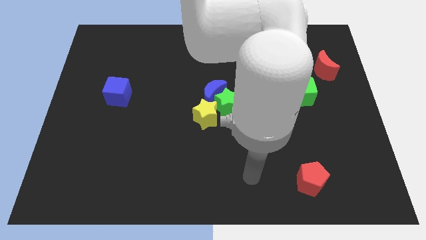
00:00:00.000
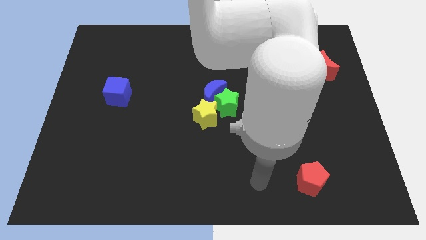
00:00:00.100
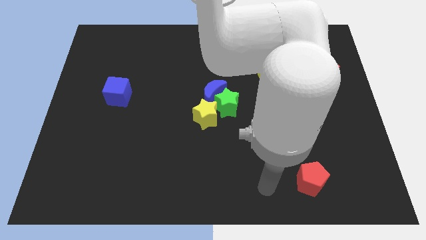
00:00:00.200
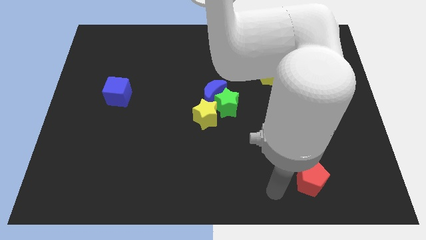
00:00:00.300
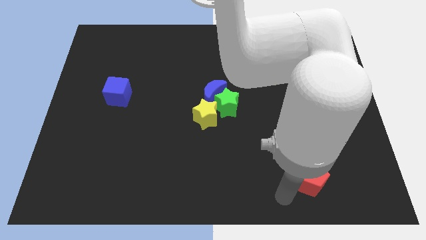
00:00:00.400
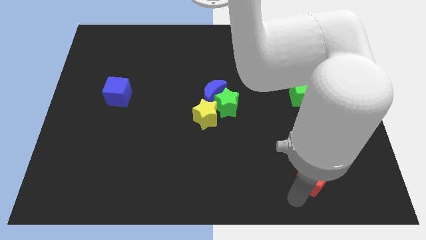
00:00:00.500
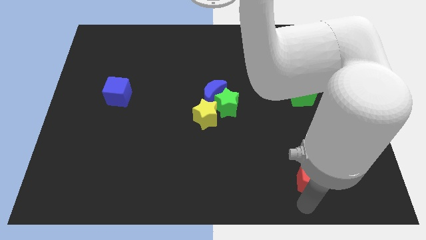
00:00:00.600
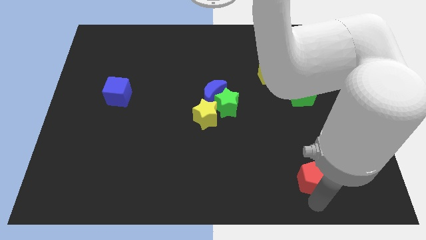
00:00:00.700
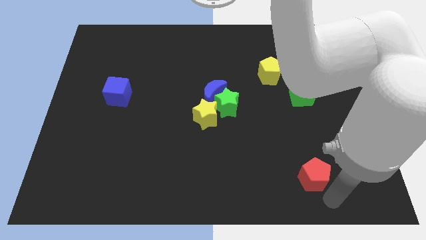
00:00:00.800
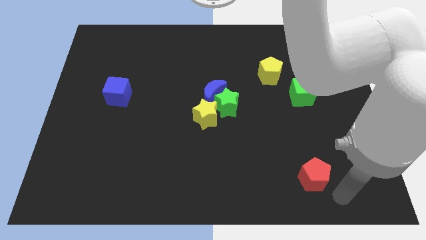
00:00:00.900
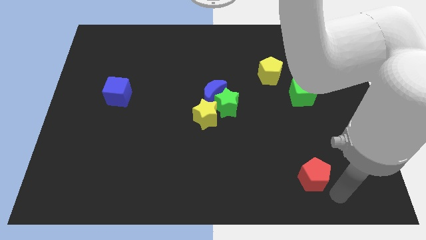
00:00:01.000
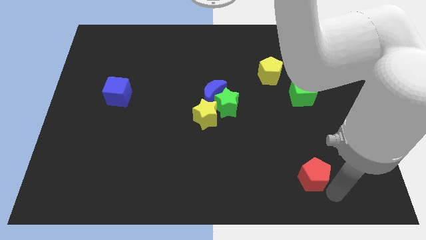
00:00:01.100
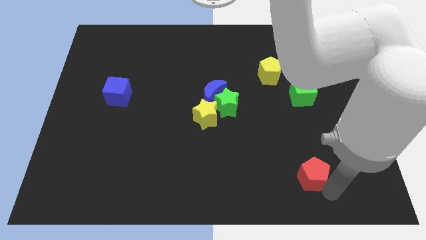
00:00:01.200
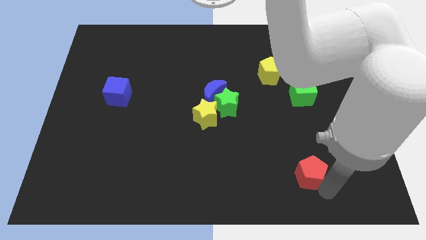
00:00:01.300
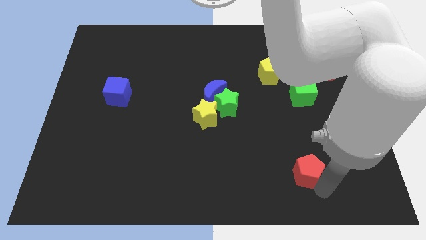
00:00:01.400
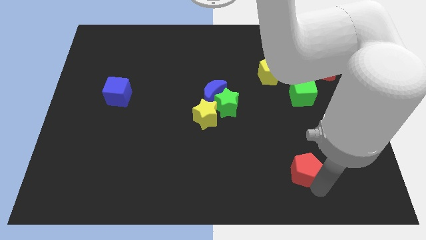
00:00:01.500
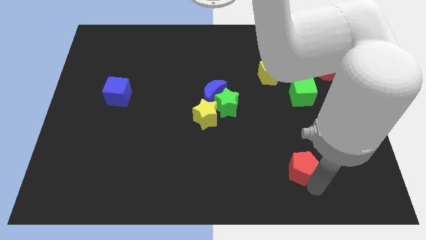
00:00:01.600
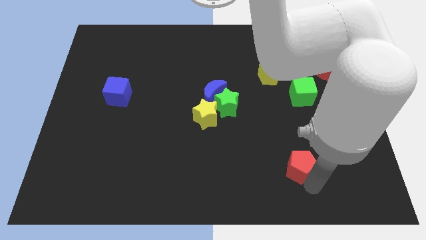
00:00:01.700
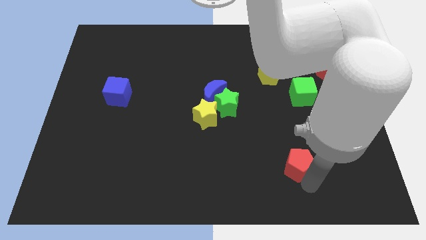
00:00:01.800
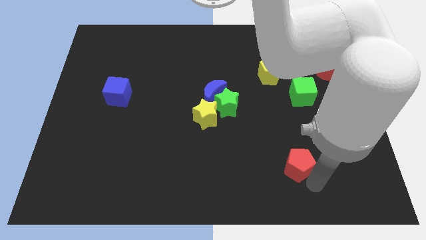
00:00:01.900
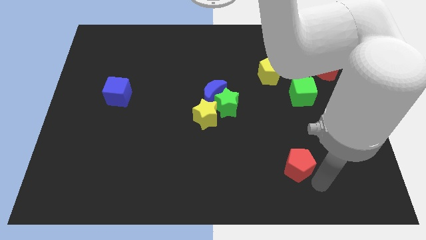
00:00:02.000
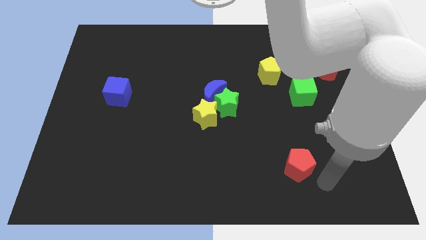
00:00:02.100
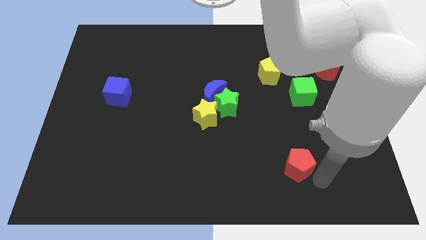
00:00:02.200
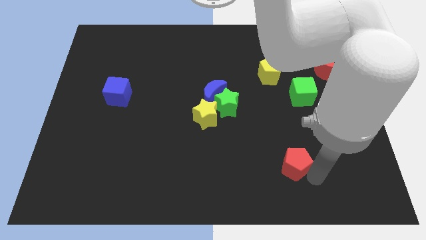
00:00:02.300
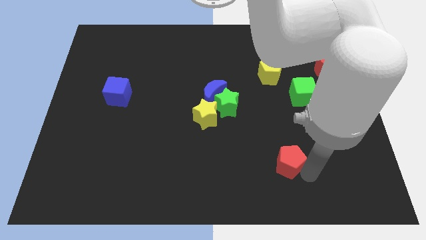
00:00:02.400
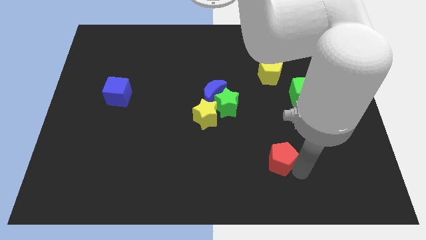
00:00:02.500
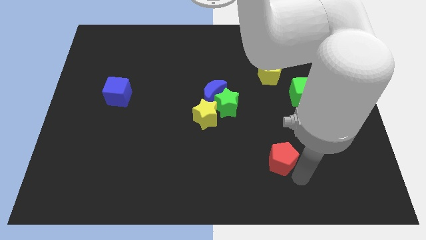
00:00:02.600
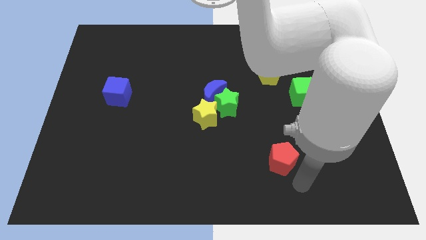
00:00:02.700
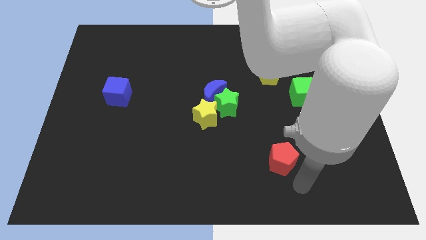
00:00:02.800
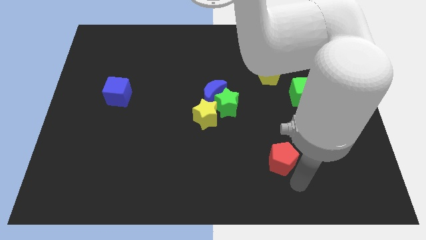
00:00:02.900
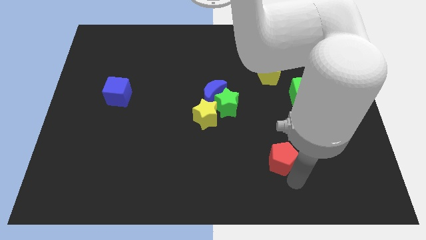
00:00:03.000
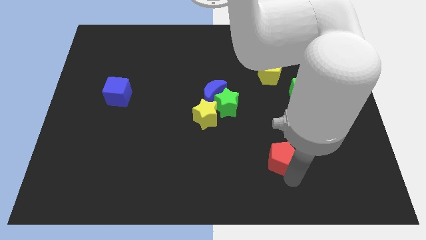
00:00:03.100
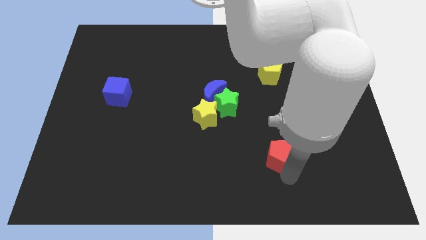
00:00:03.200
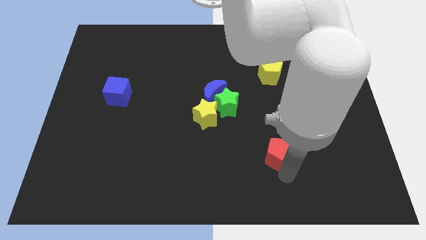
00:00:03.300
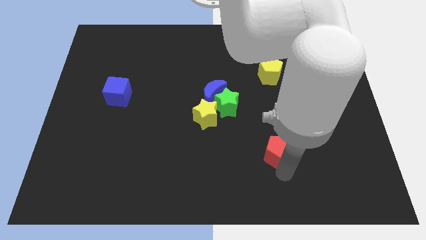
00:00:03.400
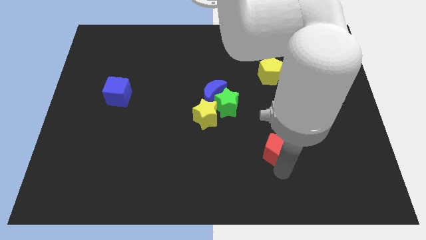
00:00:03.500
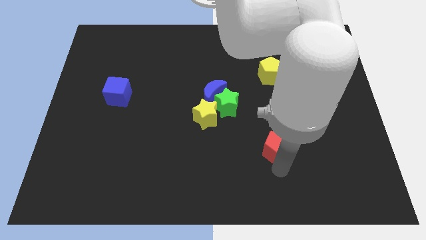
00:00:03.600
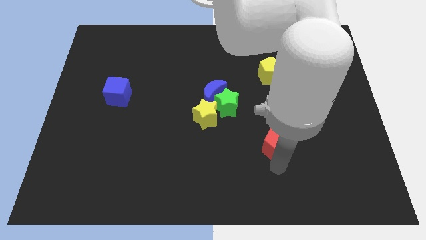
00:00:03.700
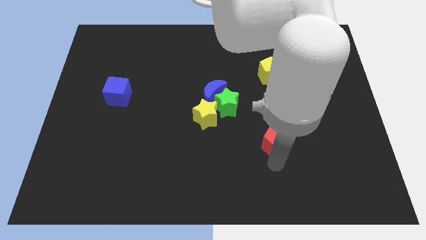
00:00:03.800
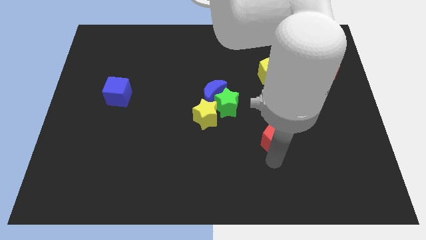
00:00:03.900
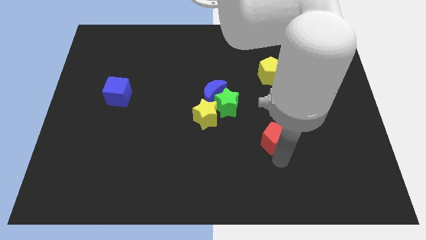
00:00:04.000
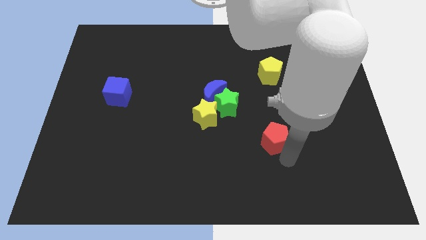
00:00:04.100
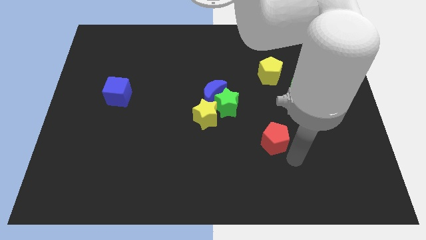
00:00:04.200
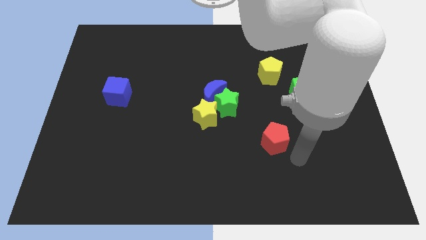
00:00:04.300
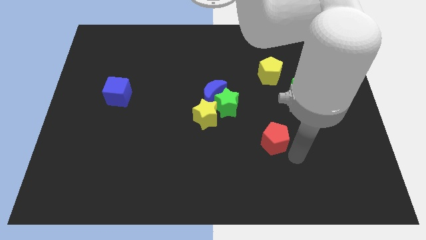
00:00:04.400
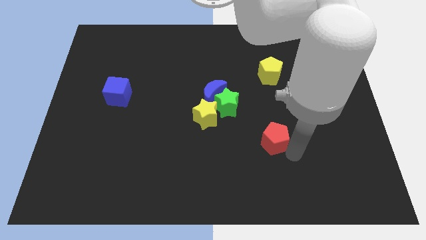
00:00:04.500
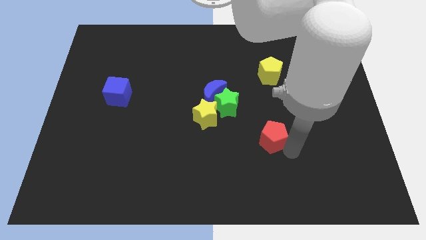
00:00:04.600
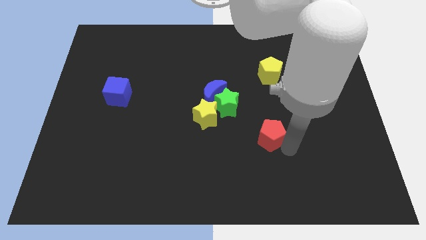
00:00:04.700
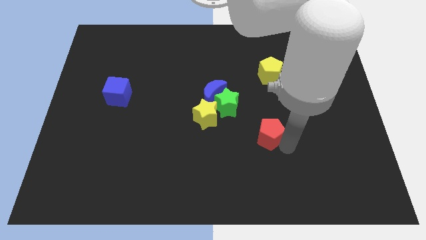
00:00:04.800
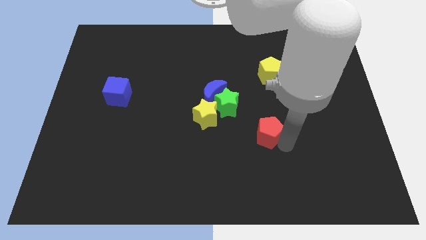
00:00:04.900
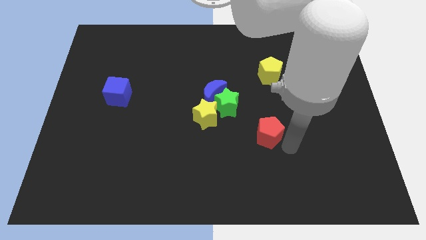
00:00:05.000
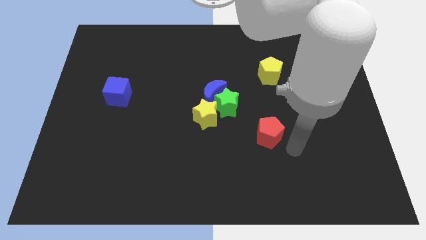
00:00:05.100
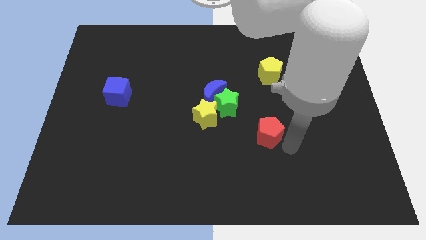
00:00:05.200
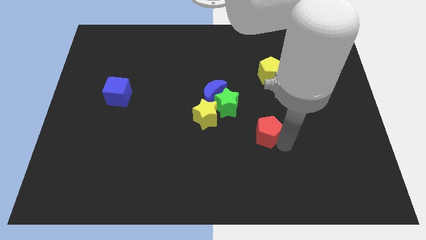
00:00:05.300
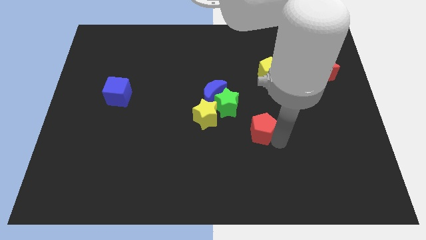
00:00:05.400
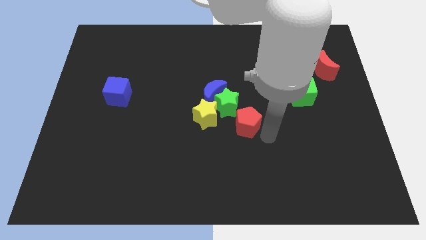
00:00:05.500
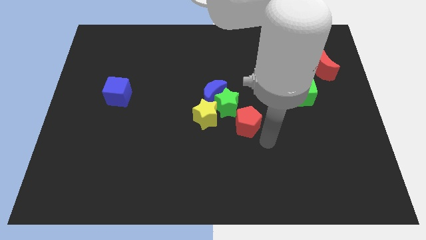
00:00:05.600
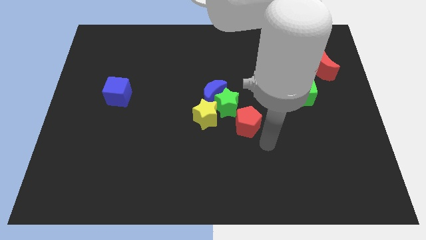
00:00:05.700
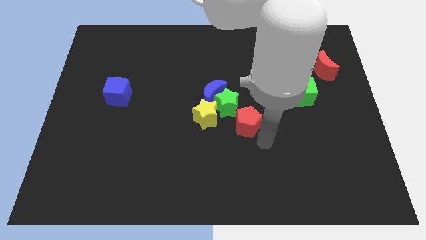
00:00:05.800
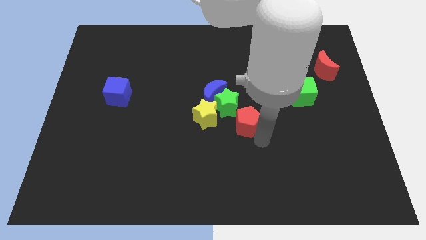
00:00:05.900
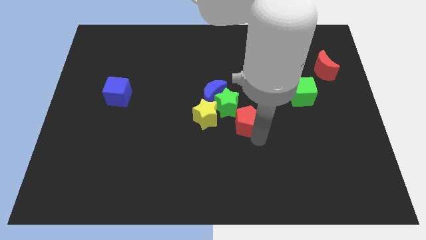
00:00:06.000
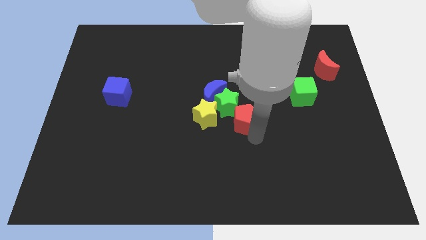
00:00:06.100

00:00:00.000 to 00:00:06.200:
push the red pentagon towards the green star

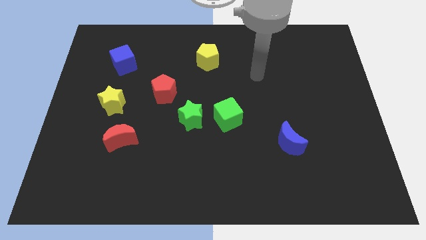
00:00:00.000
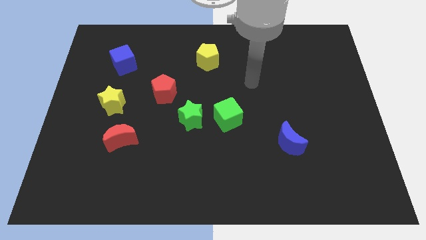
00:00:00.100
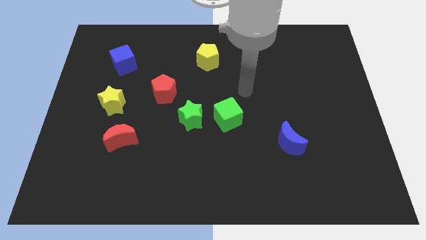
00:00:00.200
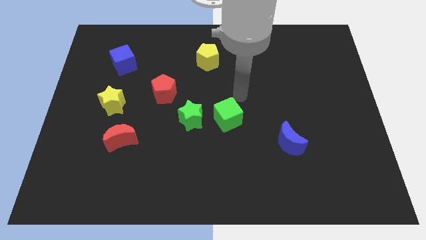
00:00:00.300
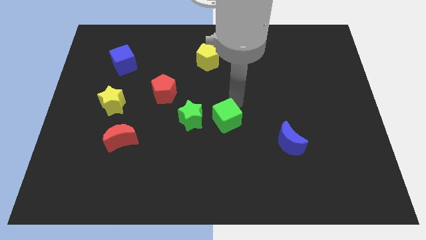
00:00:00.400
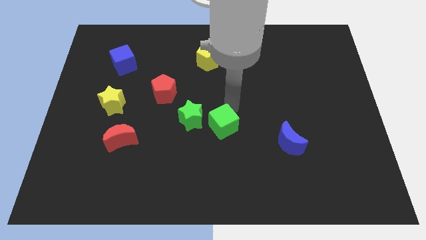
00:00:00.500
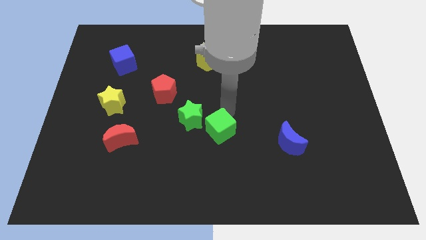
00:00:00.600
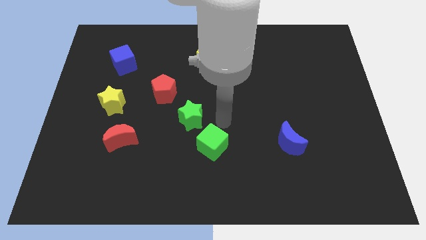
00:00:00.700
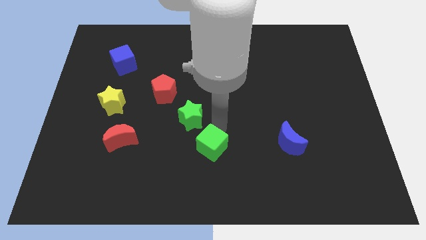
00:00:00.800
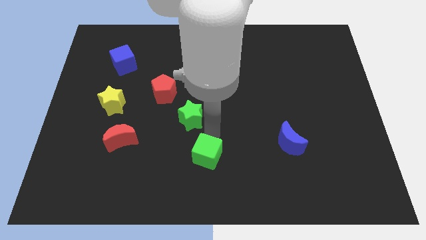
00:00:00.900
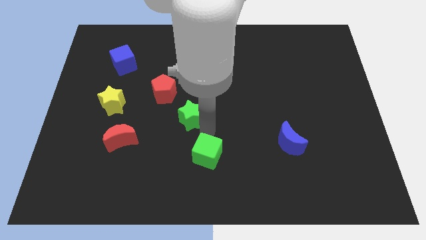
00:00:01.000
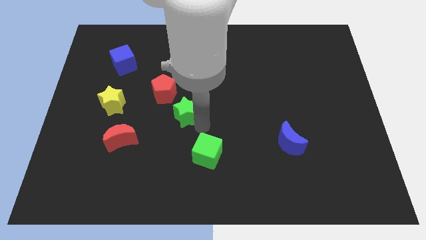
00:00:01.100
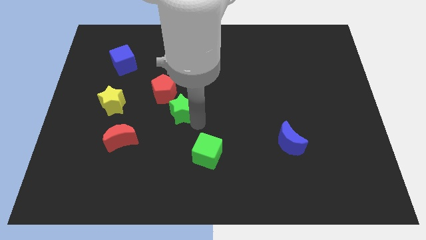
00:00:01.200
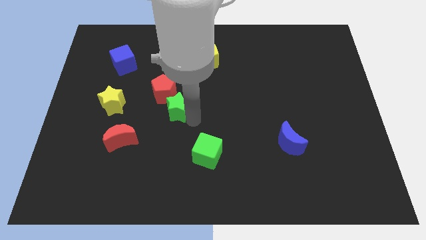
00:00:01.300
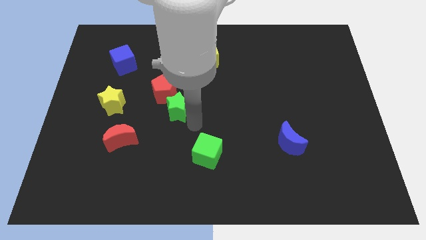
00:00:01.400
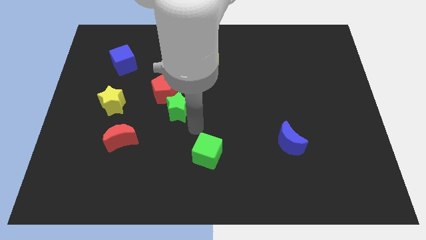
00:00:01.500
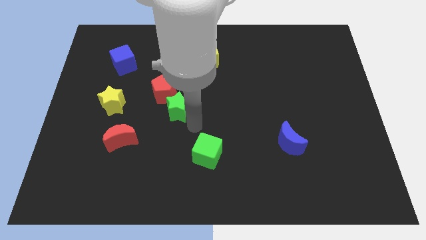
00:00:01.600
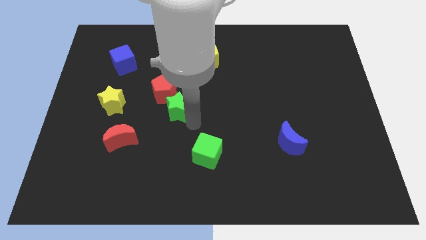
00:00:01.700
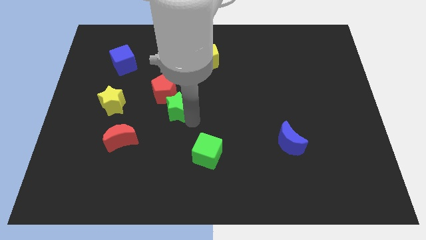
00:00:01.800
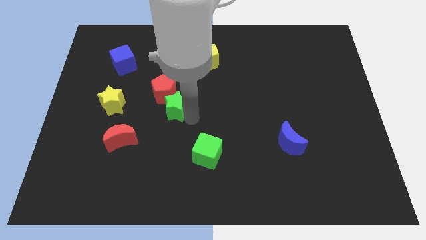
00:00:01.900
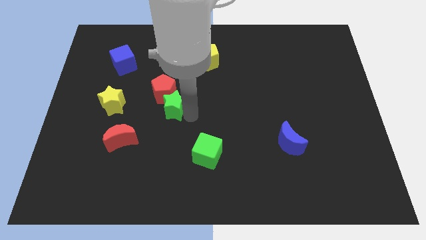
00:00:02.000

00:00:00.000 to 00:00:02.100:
move the green star close to the red pentagon

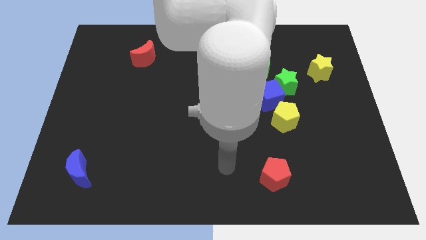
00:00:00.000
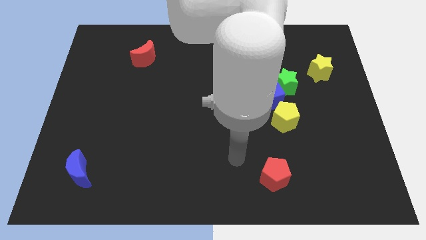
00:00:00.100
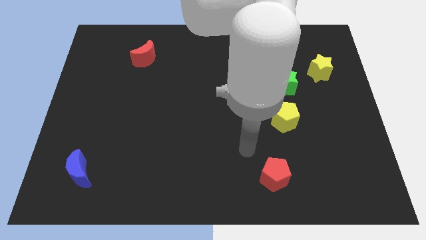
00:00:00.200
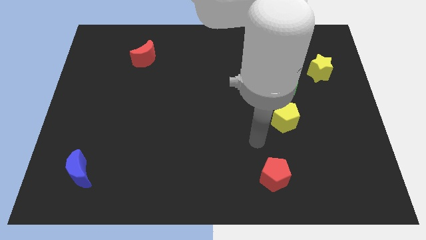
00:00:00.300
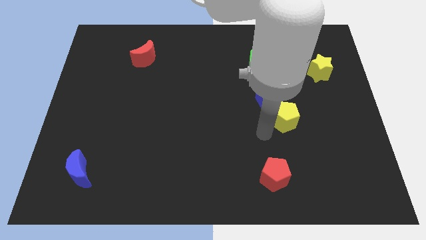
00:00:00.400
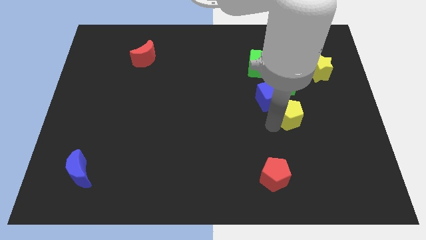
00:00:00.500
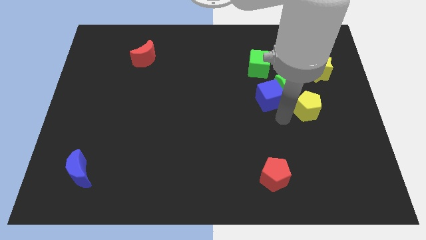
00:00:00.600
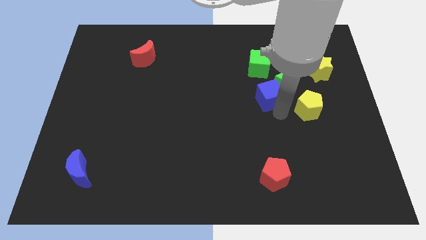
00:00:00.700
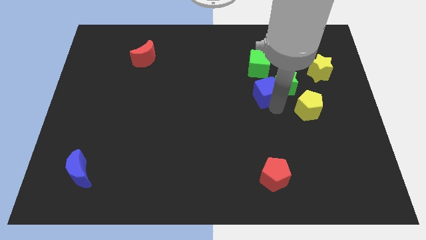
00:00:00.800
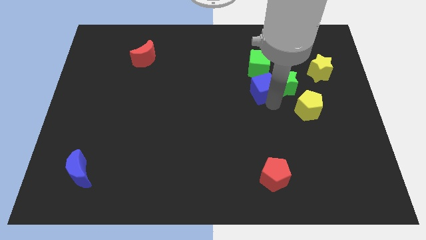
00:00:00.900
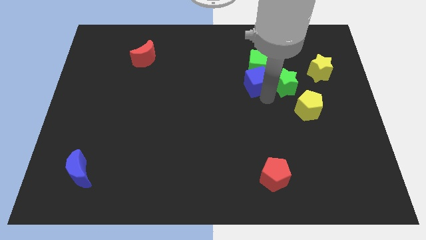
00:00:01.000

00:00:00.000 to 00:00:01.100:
push the blue cube next to the green cube
